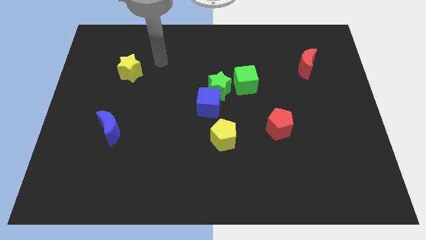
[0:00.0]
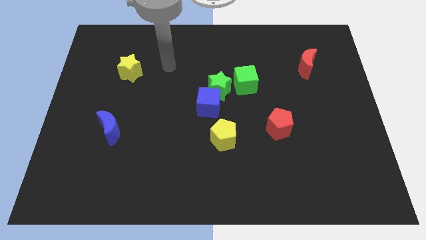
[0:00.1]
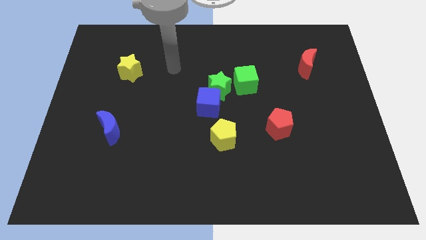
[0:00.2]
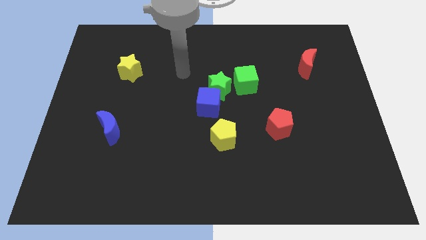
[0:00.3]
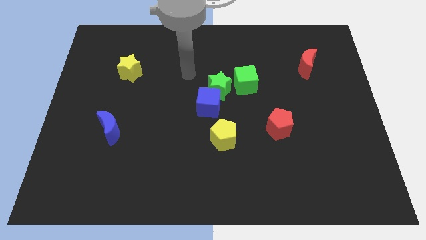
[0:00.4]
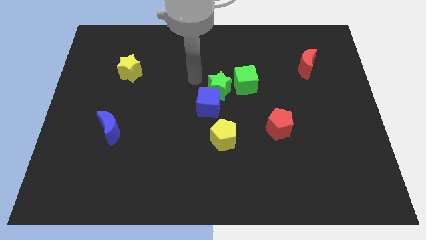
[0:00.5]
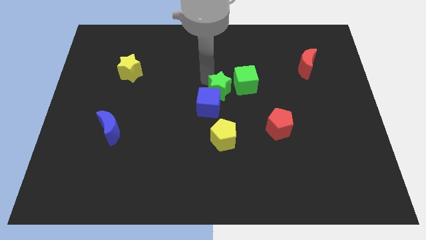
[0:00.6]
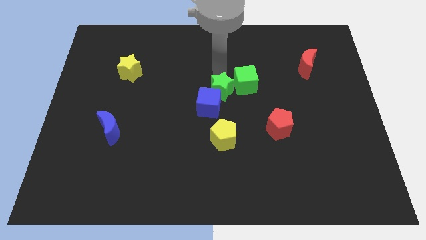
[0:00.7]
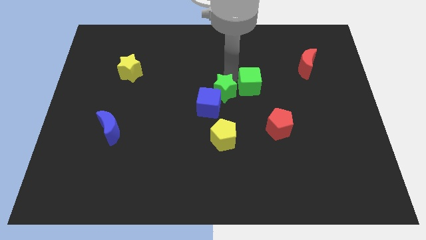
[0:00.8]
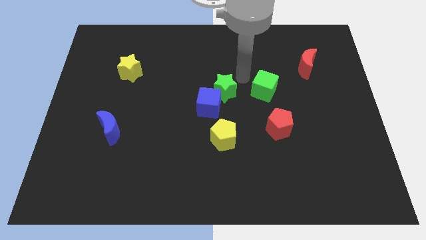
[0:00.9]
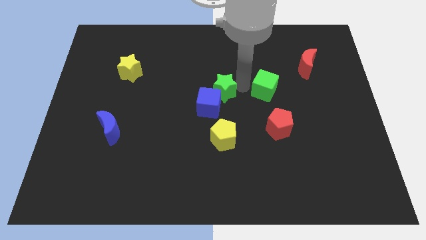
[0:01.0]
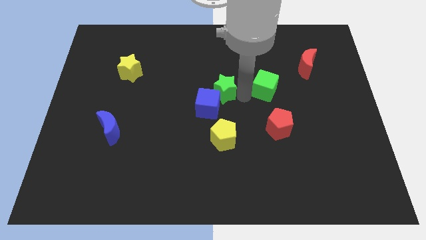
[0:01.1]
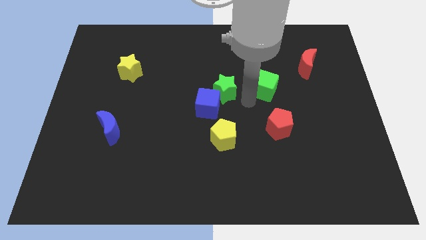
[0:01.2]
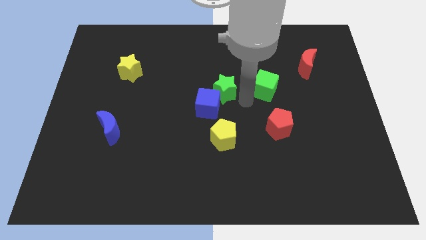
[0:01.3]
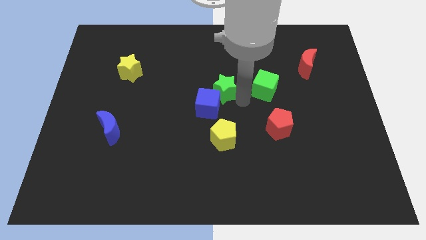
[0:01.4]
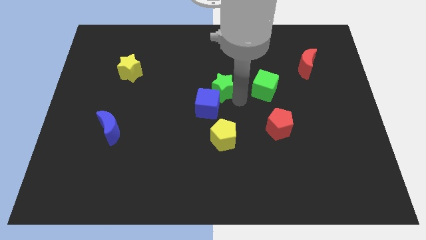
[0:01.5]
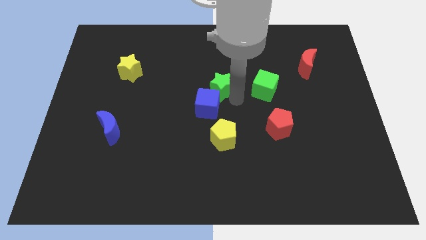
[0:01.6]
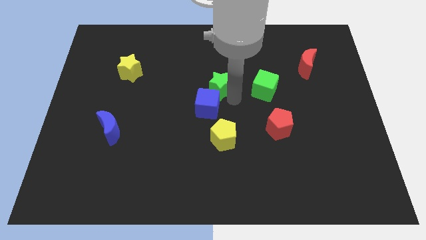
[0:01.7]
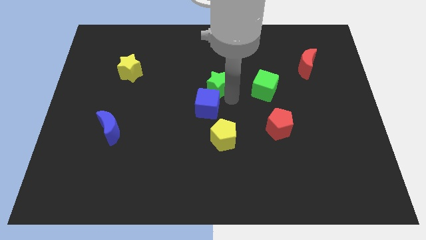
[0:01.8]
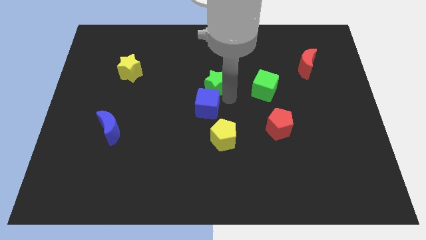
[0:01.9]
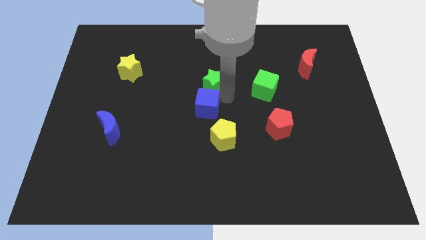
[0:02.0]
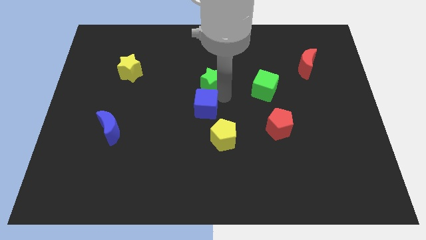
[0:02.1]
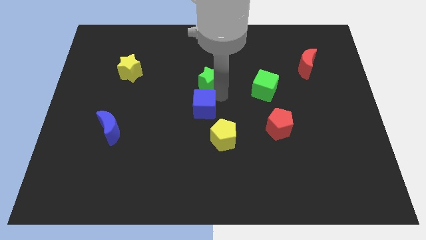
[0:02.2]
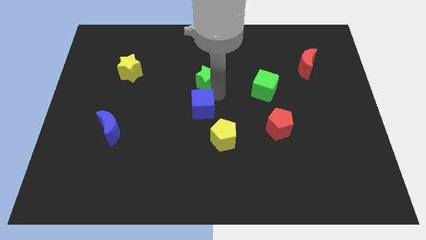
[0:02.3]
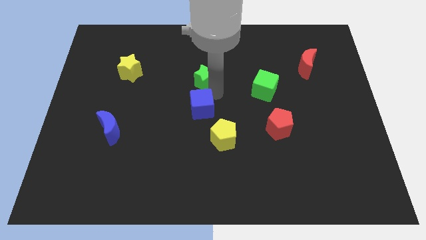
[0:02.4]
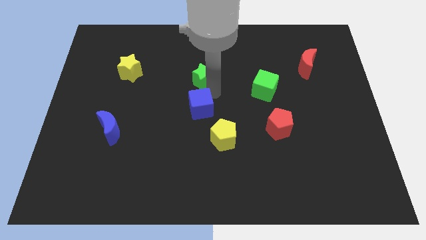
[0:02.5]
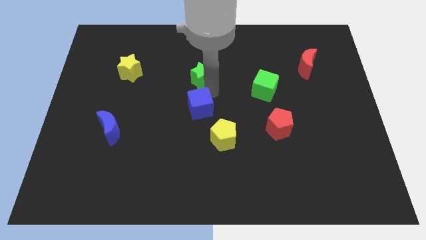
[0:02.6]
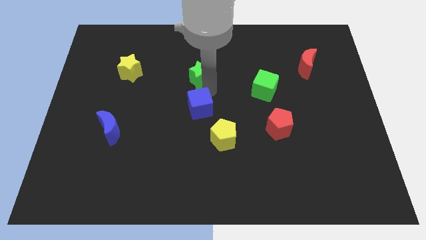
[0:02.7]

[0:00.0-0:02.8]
move the green star away from the blue cube and green cube

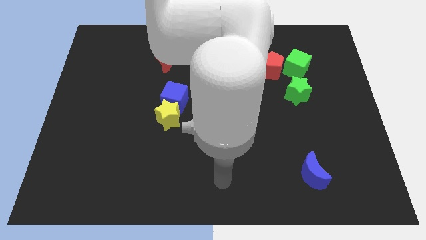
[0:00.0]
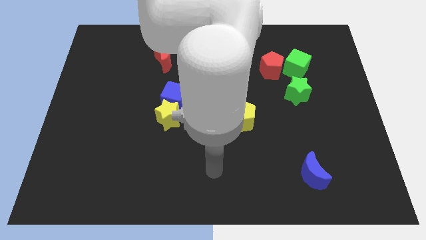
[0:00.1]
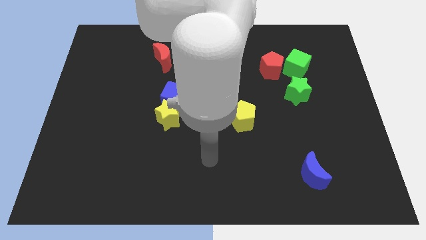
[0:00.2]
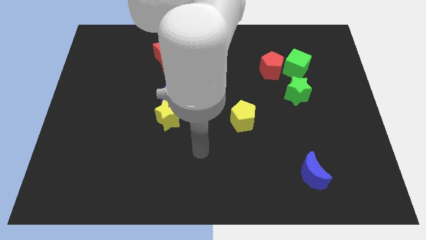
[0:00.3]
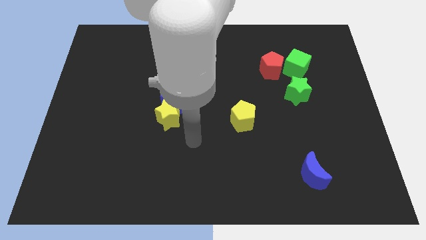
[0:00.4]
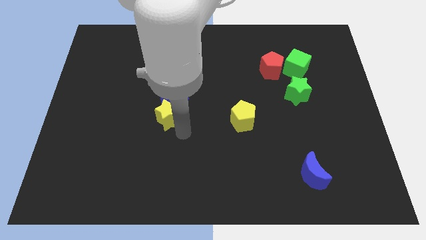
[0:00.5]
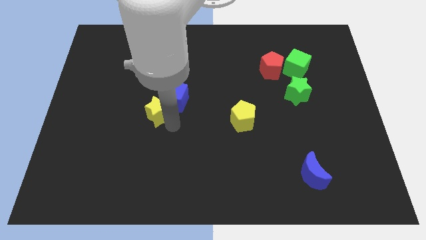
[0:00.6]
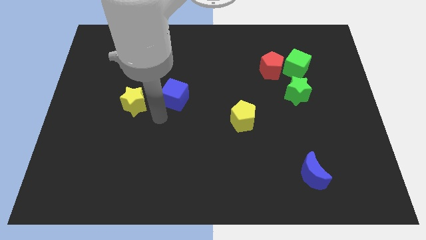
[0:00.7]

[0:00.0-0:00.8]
separate the blue cube from the yellow star

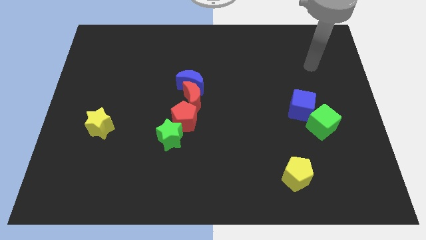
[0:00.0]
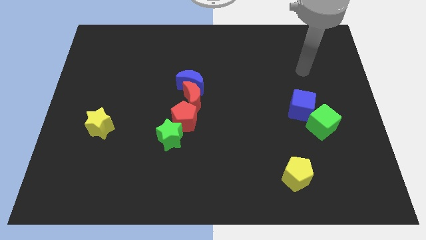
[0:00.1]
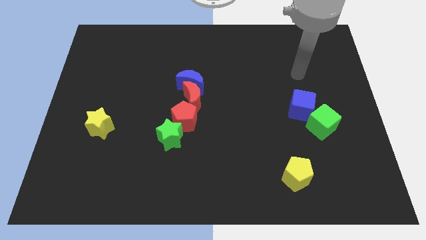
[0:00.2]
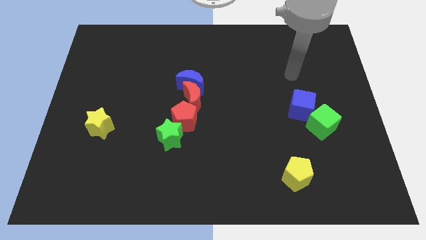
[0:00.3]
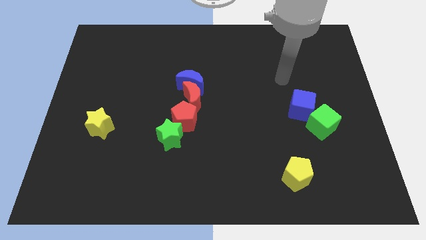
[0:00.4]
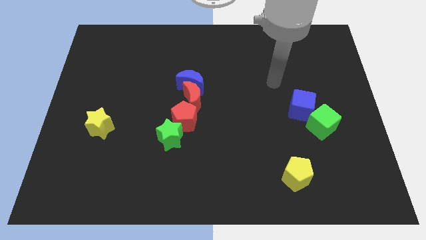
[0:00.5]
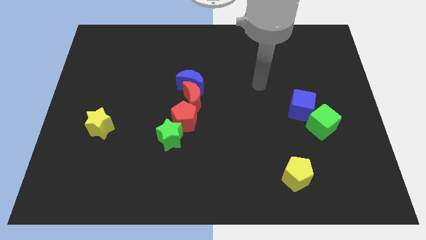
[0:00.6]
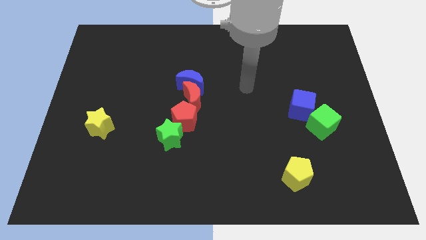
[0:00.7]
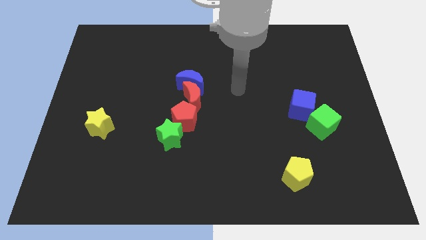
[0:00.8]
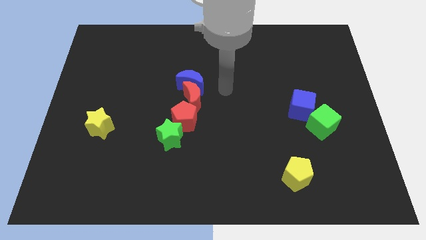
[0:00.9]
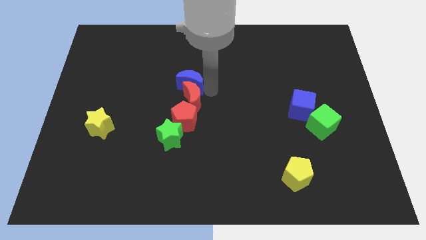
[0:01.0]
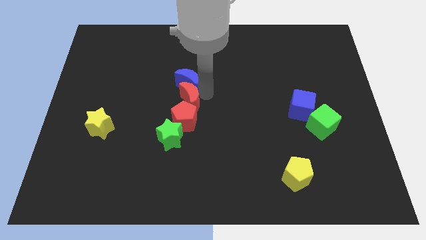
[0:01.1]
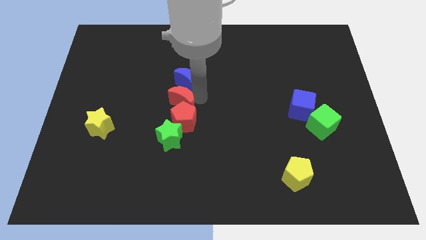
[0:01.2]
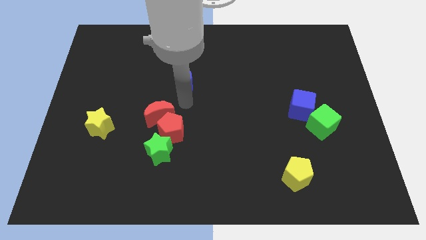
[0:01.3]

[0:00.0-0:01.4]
move the blue moon away from the red moon

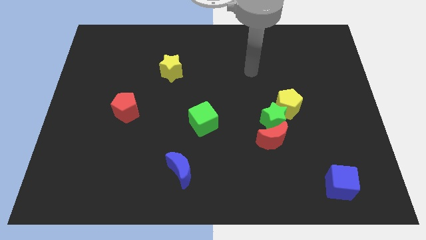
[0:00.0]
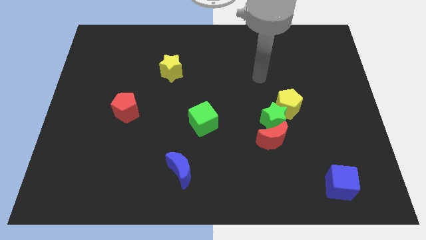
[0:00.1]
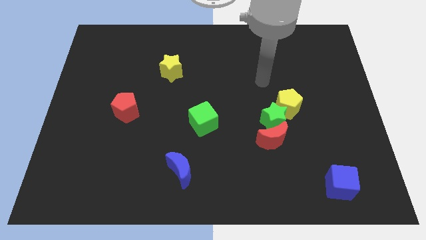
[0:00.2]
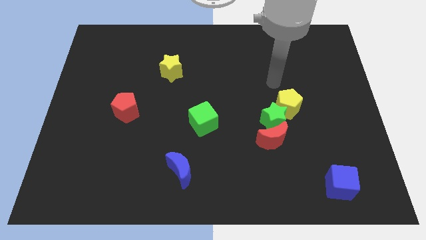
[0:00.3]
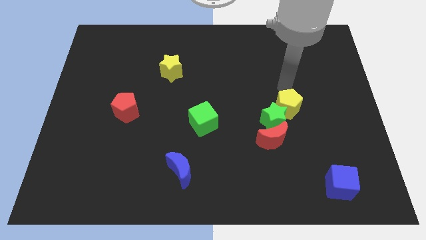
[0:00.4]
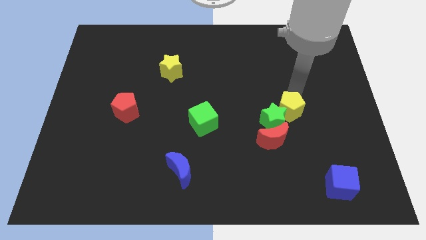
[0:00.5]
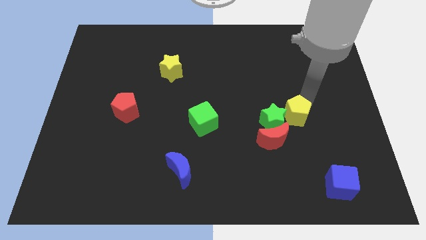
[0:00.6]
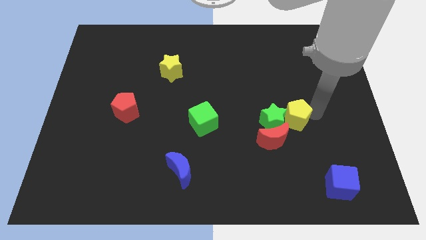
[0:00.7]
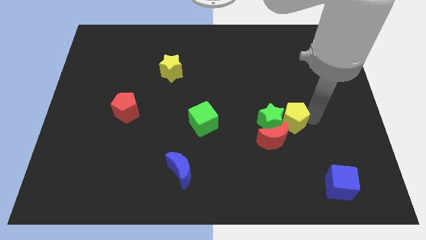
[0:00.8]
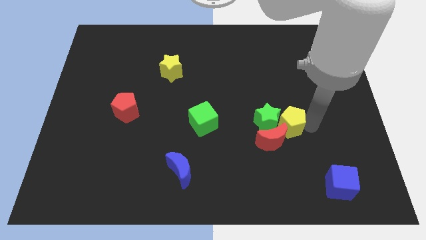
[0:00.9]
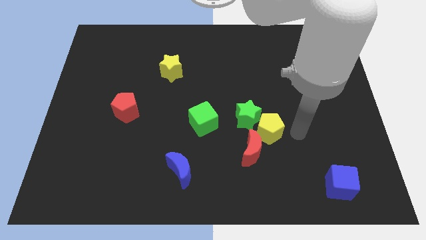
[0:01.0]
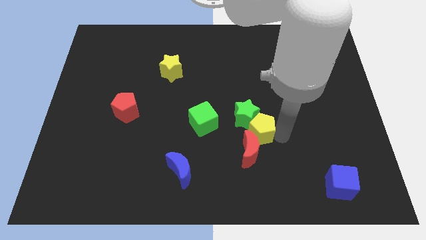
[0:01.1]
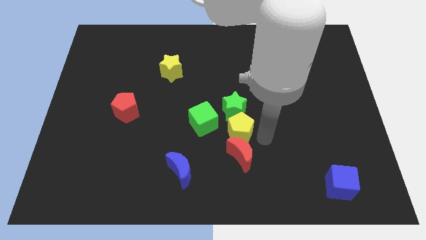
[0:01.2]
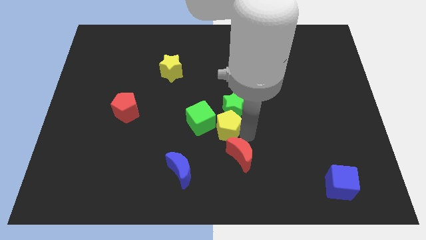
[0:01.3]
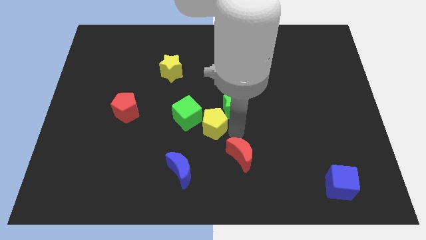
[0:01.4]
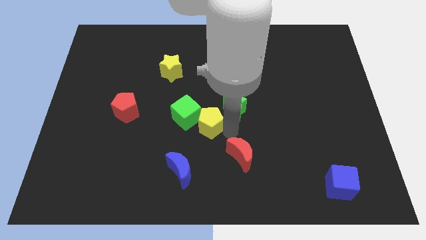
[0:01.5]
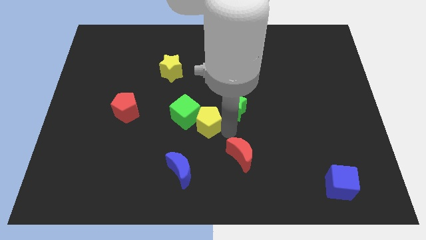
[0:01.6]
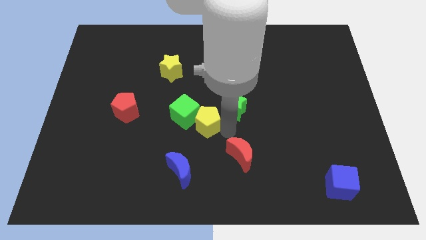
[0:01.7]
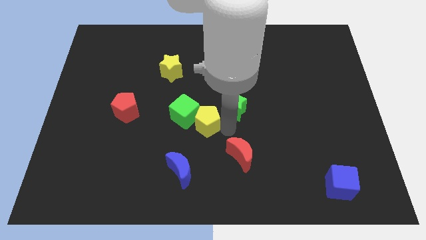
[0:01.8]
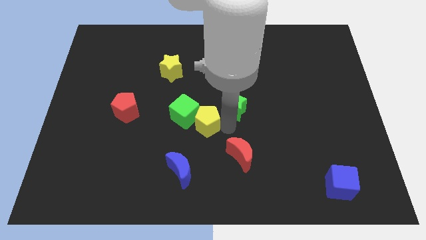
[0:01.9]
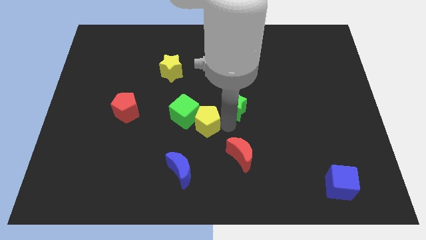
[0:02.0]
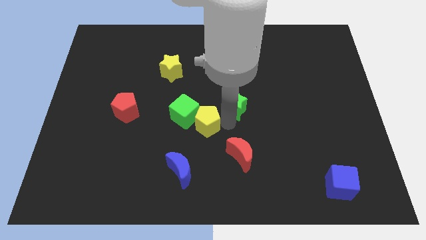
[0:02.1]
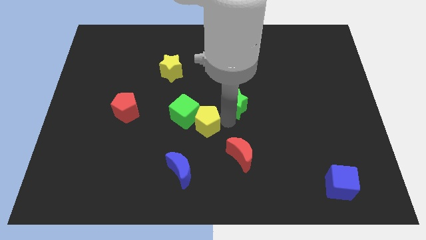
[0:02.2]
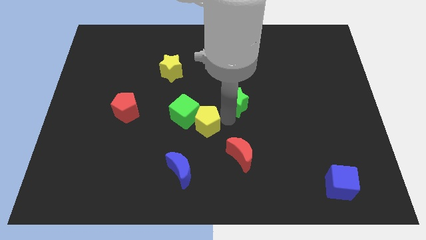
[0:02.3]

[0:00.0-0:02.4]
separate the green star from the yellow pentagon and red moon

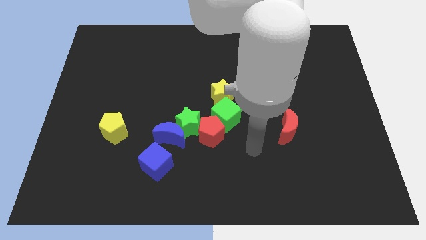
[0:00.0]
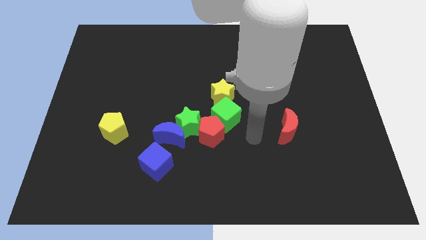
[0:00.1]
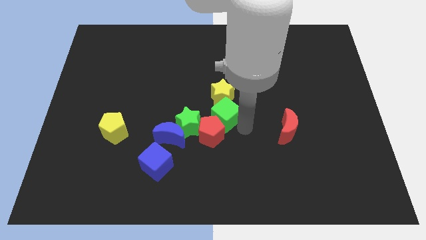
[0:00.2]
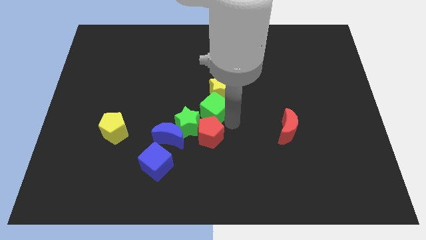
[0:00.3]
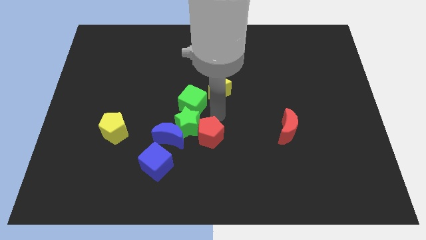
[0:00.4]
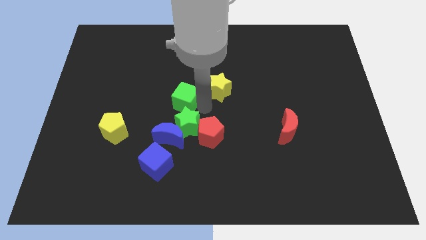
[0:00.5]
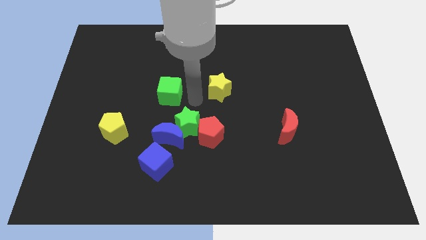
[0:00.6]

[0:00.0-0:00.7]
move the yellow star away from the green cube

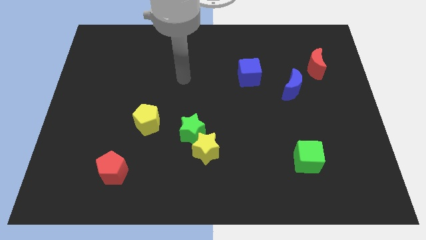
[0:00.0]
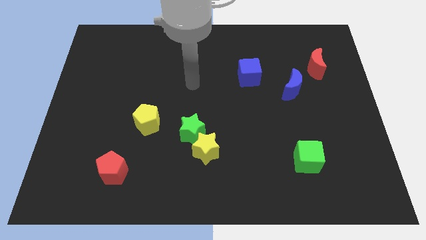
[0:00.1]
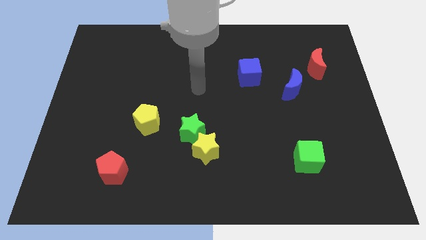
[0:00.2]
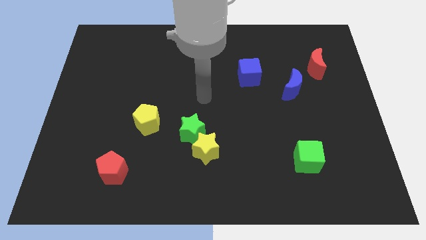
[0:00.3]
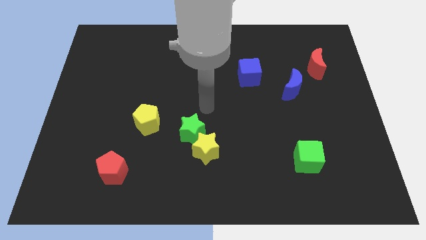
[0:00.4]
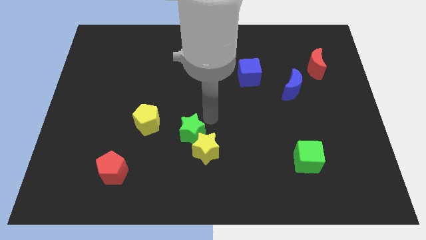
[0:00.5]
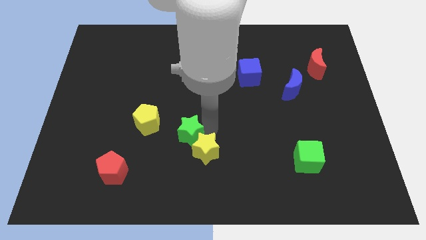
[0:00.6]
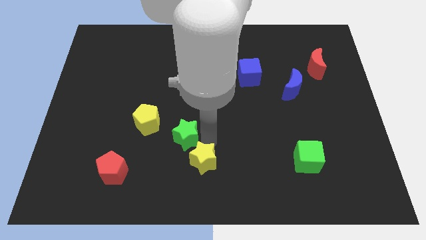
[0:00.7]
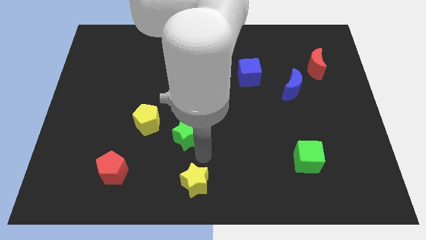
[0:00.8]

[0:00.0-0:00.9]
separate the green star from the yellow star

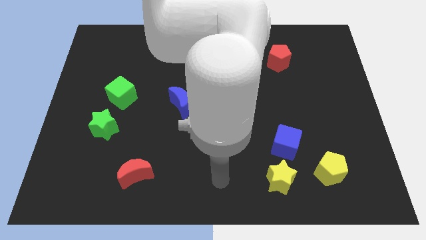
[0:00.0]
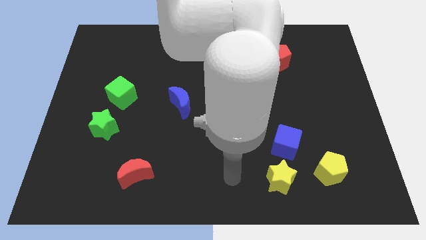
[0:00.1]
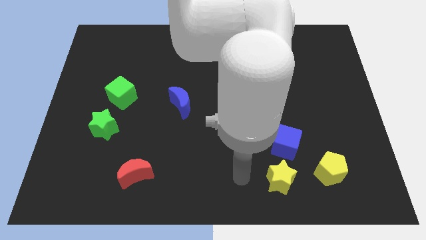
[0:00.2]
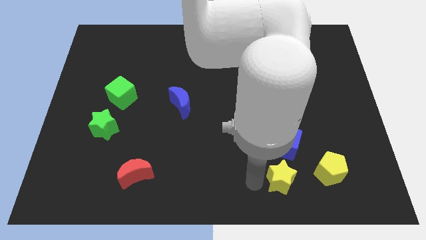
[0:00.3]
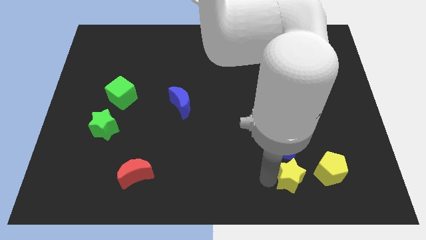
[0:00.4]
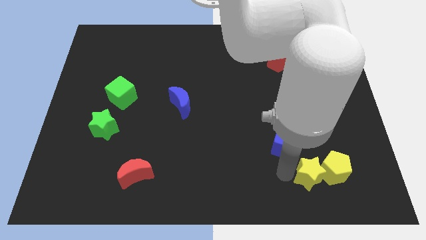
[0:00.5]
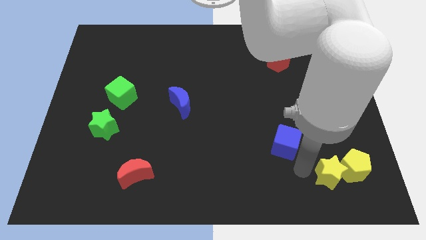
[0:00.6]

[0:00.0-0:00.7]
move the blue cube away from the yellow star
